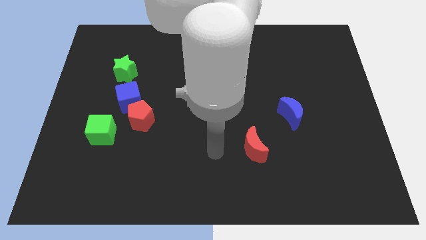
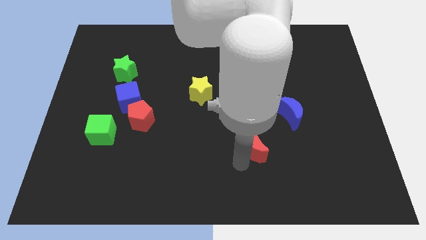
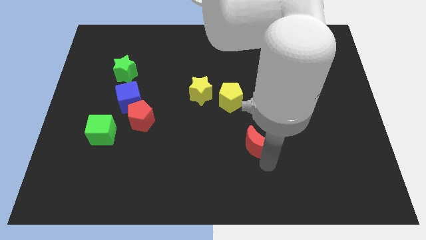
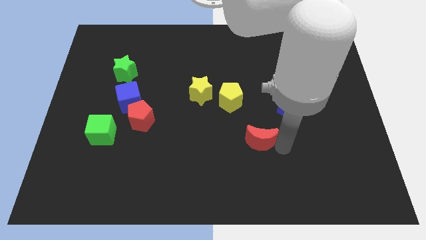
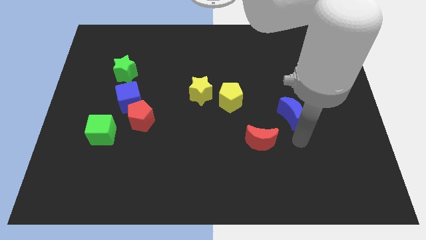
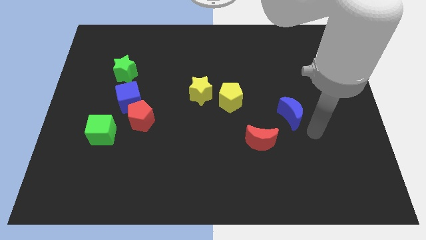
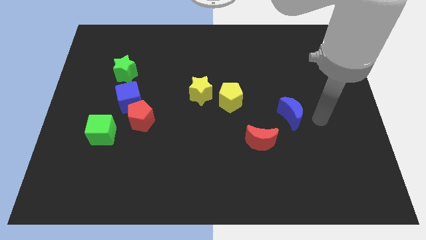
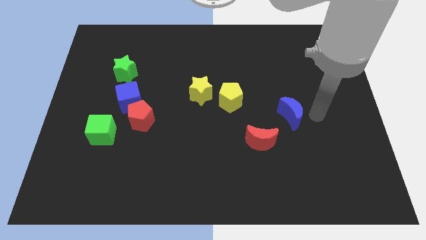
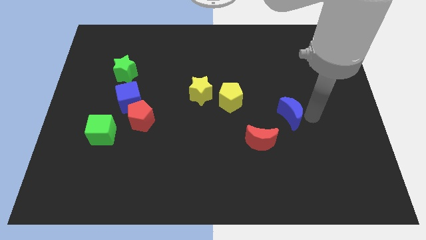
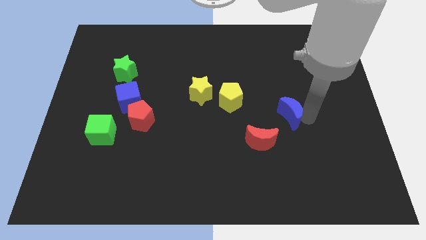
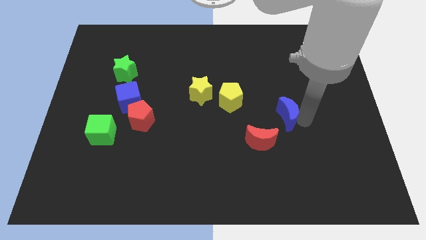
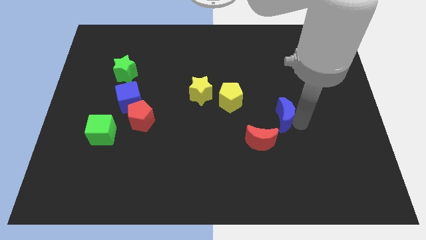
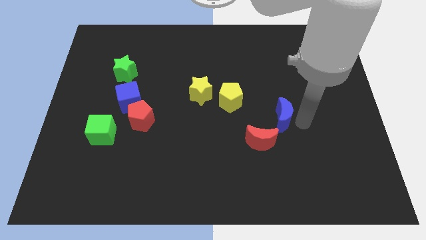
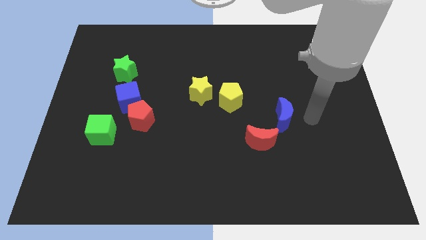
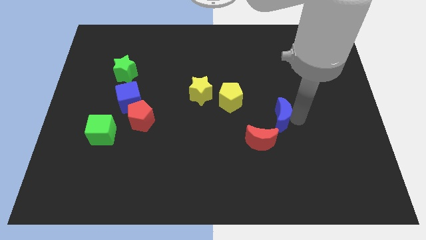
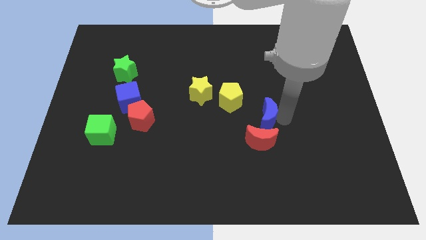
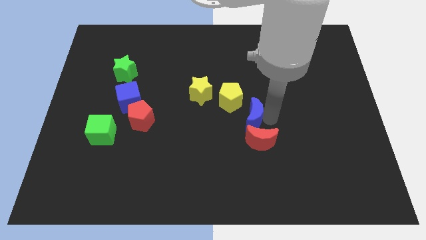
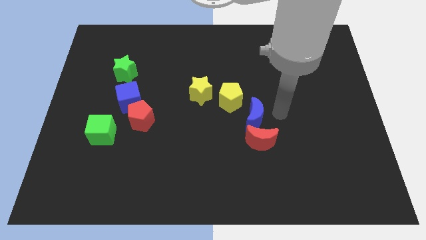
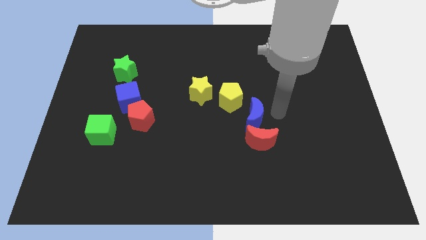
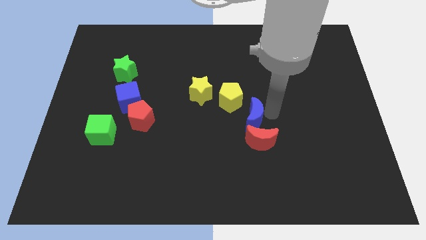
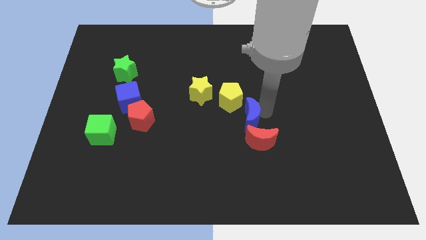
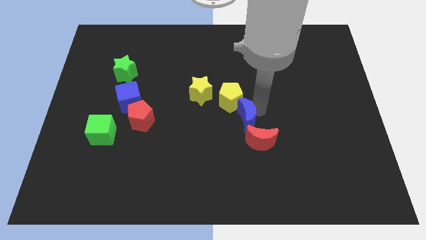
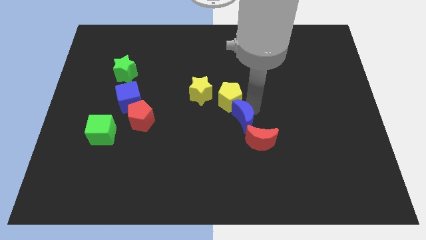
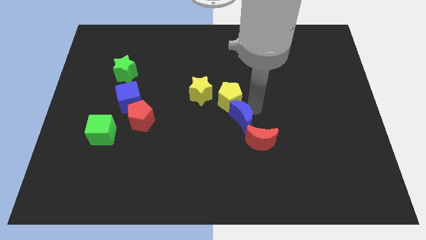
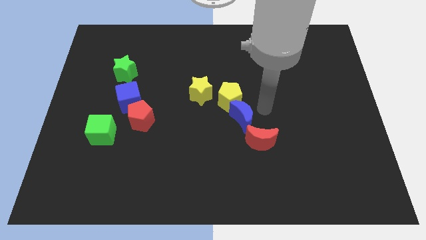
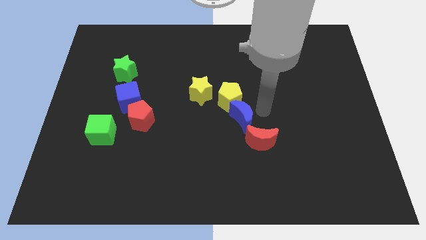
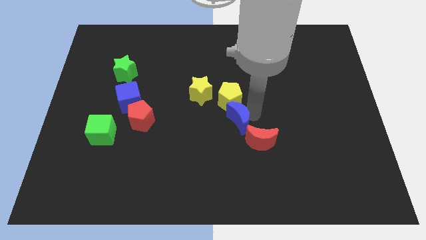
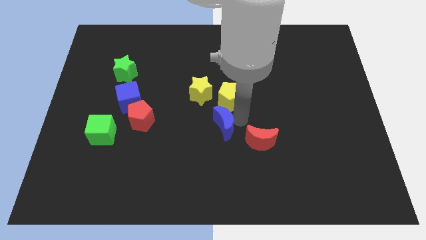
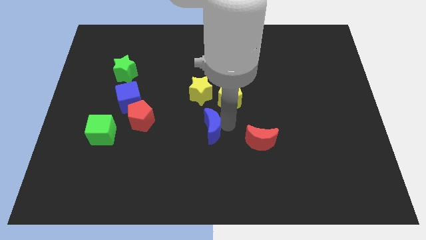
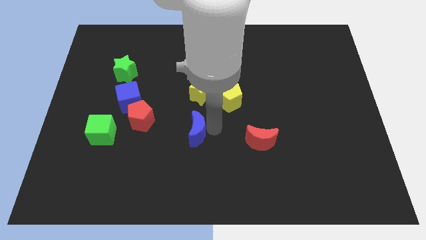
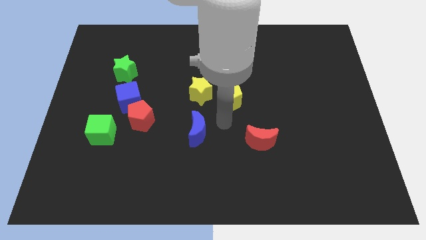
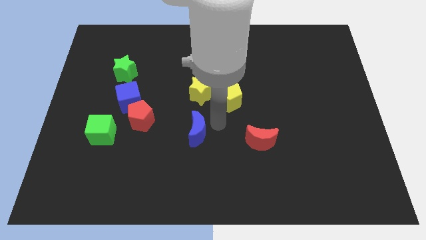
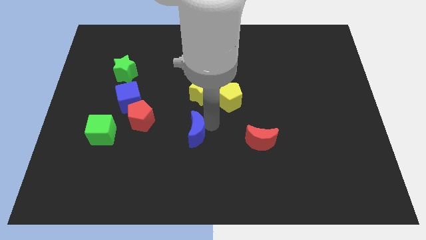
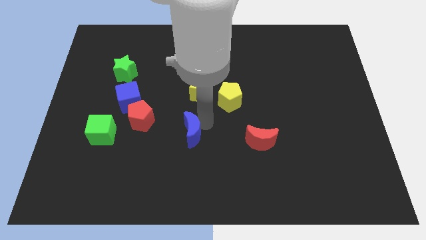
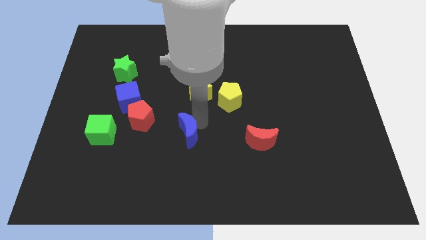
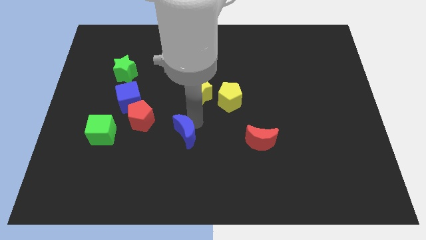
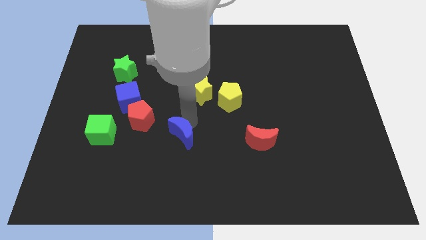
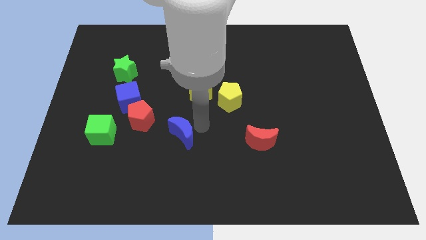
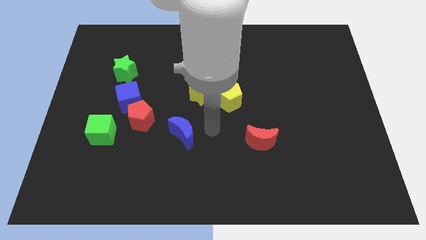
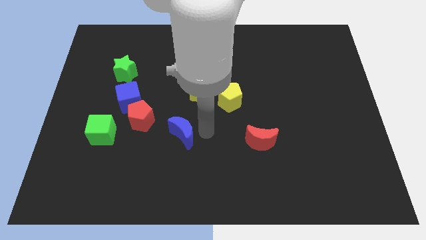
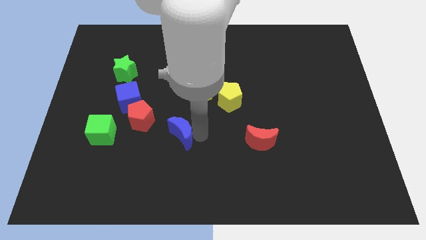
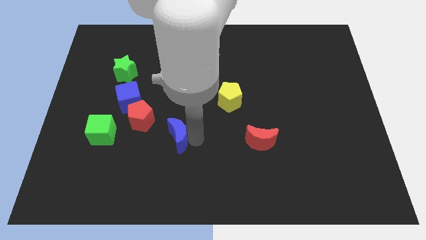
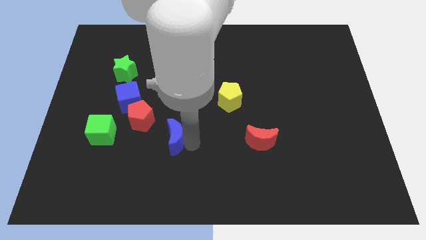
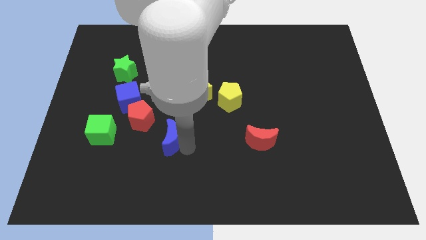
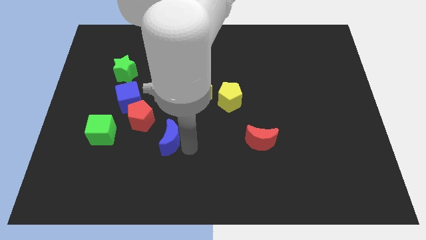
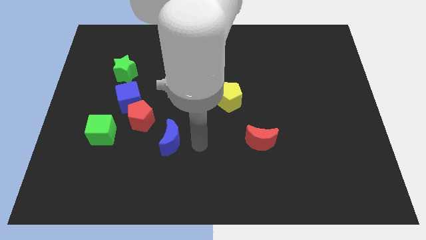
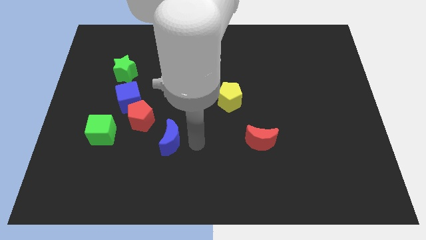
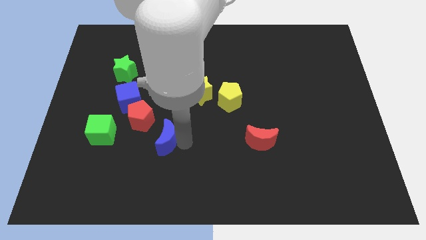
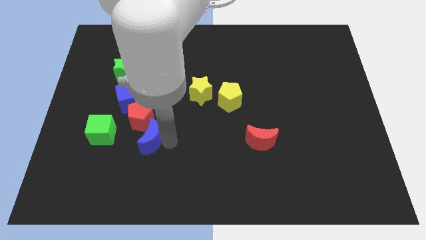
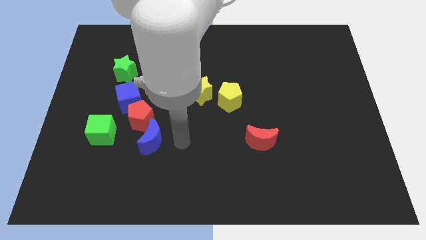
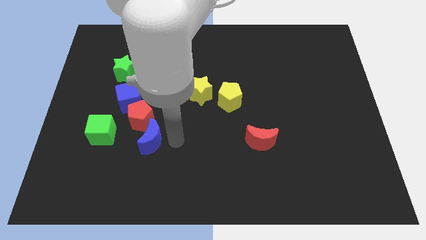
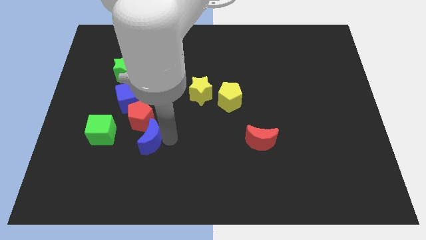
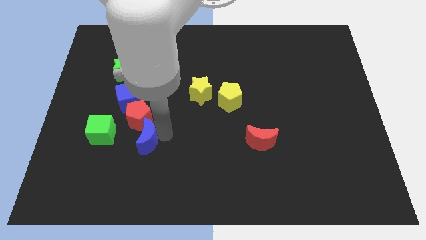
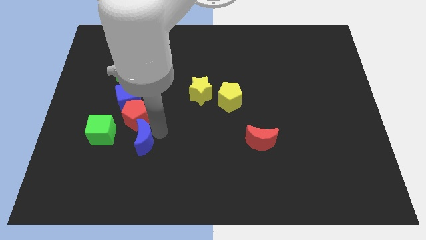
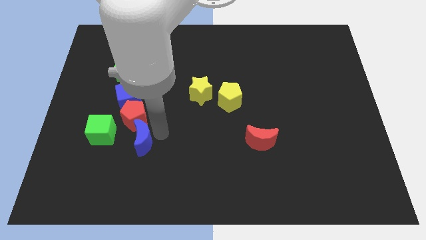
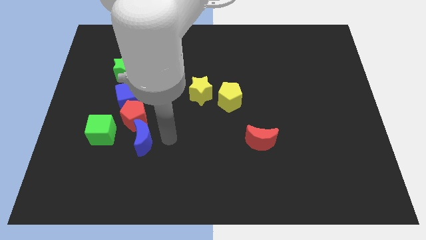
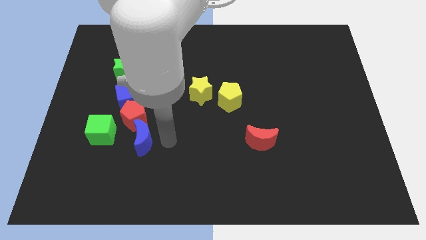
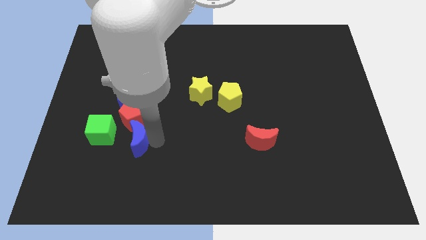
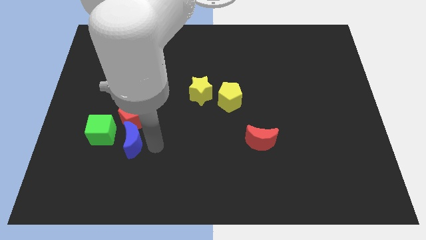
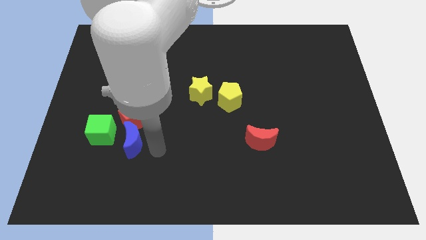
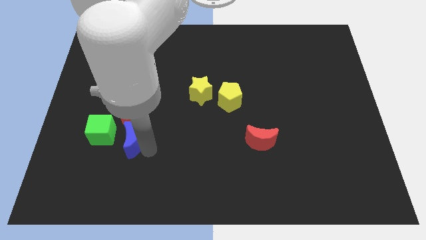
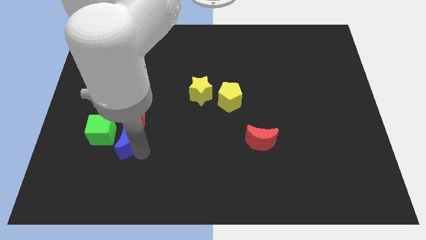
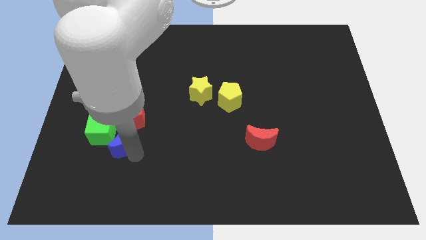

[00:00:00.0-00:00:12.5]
slide the blue moon towards the green cube

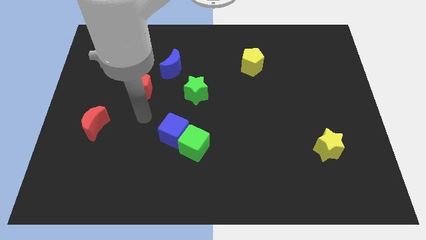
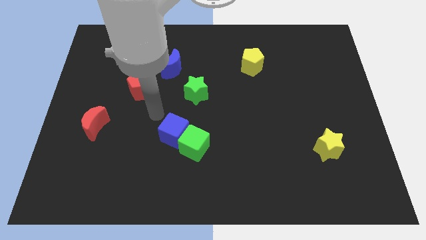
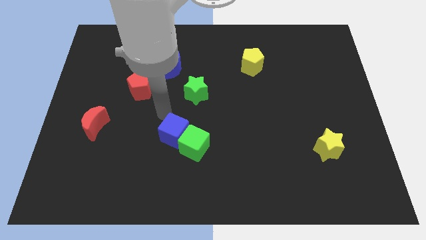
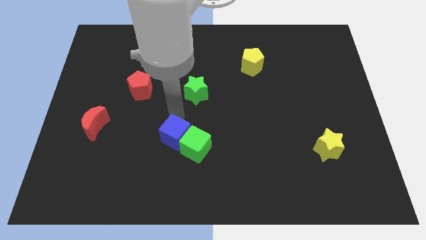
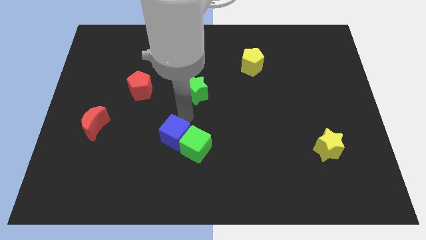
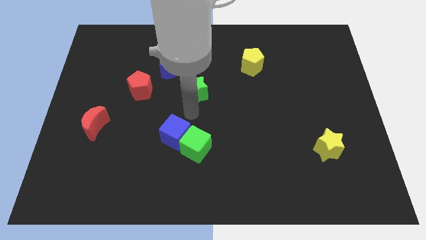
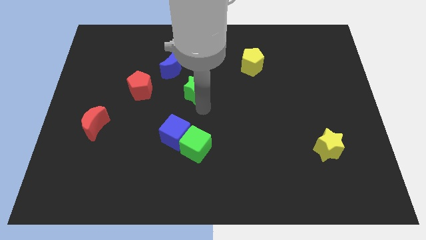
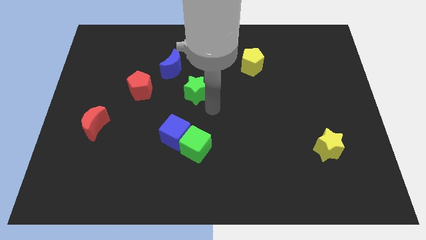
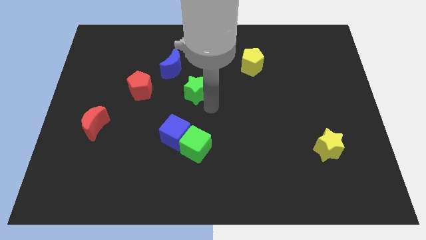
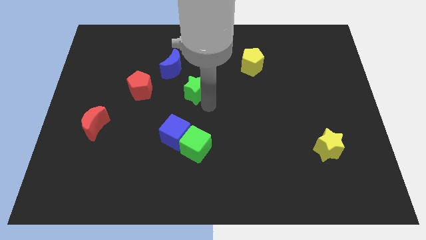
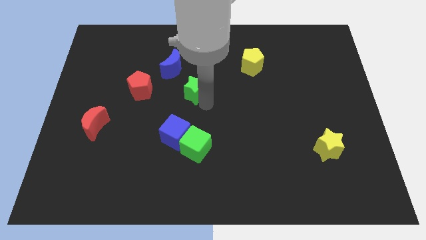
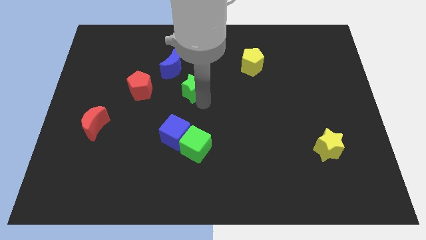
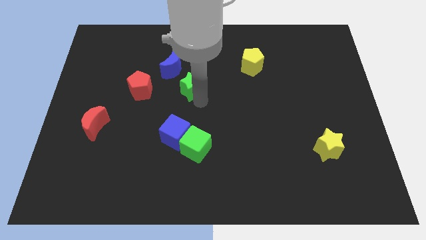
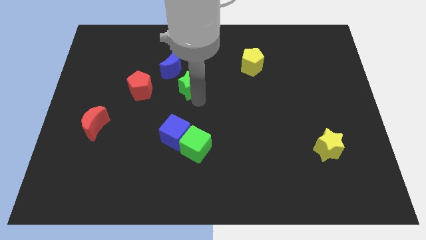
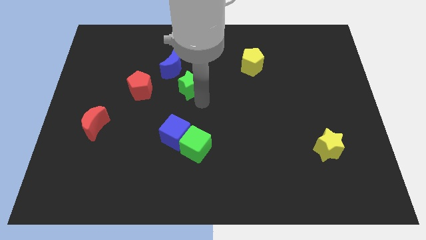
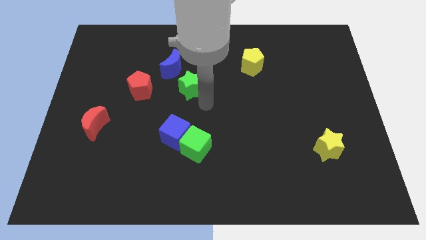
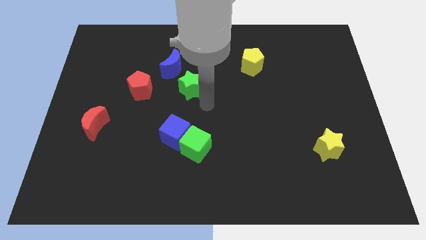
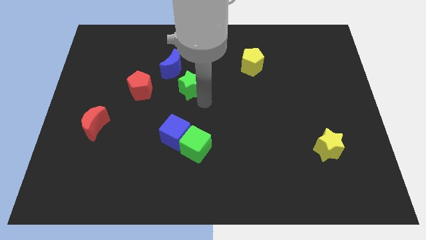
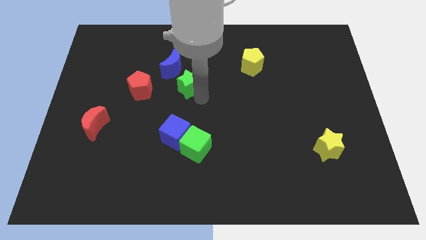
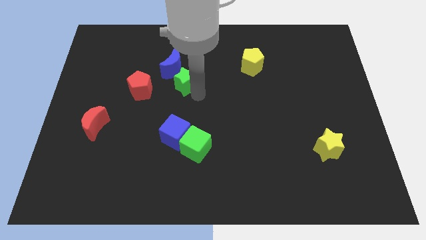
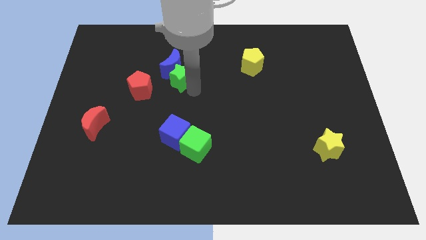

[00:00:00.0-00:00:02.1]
move the green star to the blue moon
